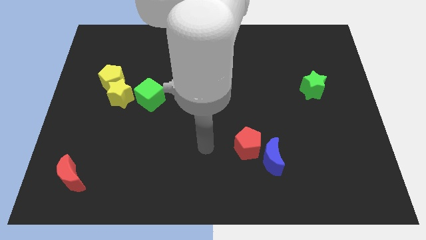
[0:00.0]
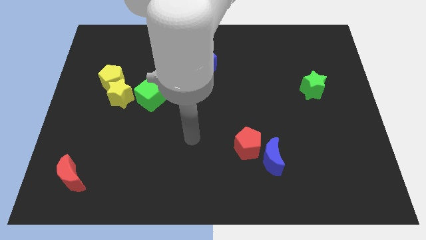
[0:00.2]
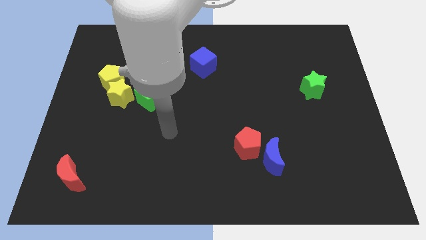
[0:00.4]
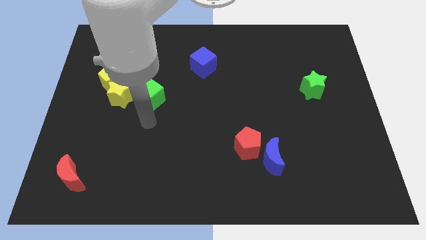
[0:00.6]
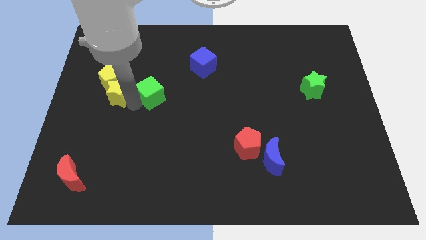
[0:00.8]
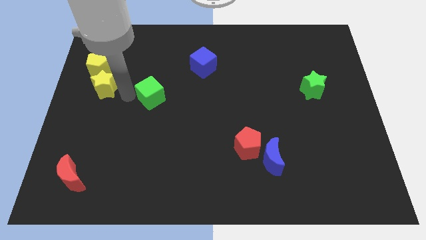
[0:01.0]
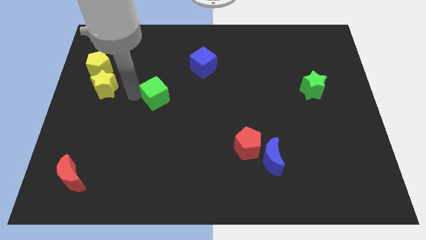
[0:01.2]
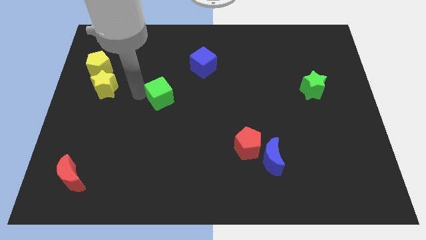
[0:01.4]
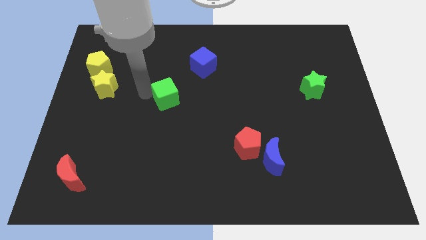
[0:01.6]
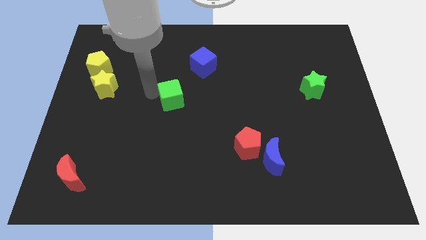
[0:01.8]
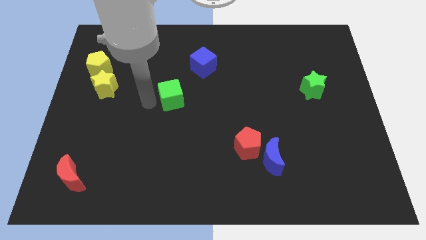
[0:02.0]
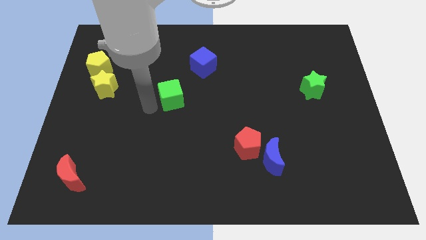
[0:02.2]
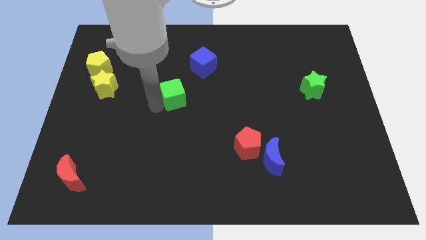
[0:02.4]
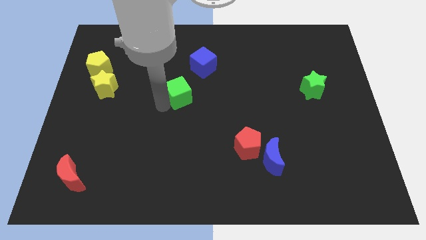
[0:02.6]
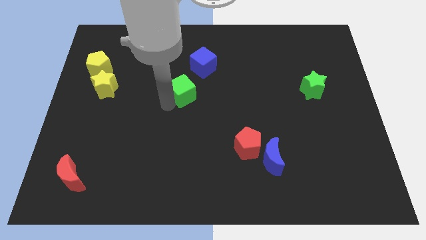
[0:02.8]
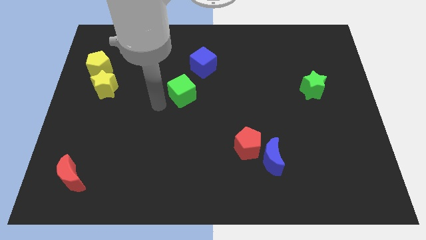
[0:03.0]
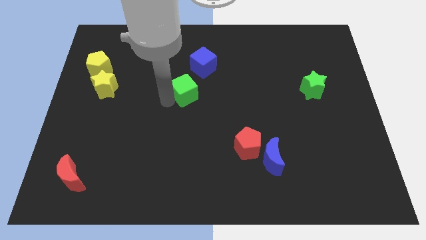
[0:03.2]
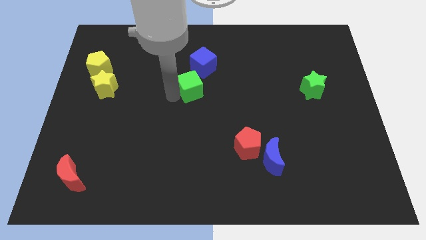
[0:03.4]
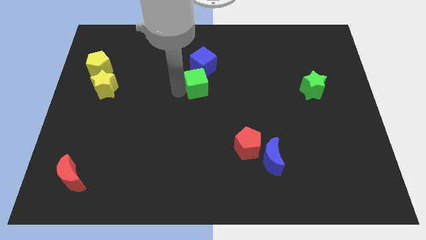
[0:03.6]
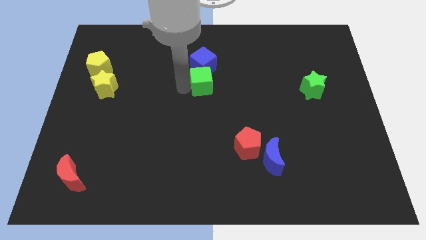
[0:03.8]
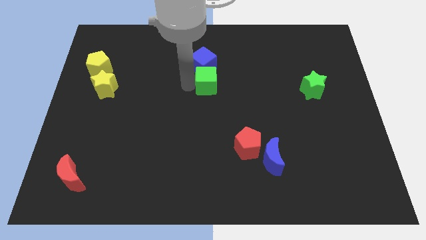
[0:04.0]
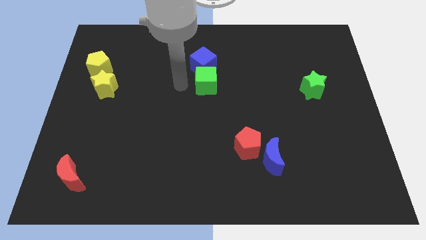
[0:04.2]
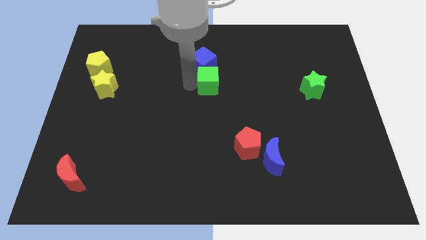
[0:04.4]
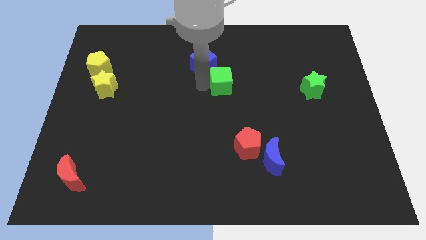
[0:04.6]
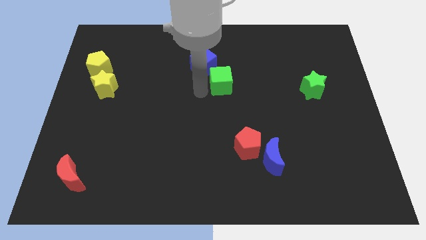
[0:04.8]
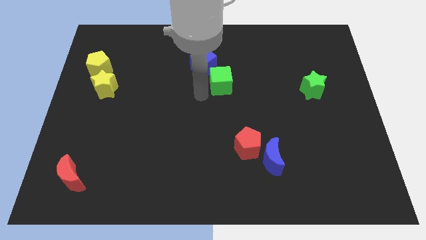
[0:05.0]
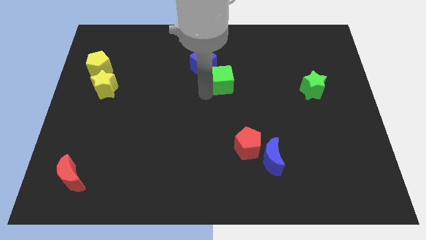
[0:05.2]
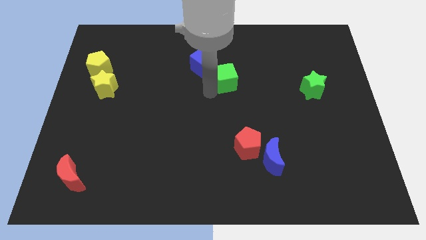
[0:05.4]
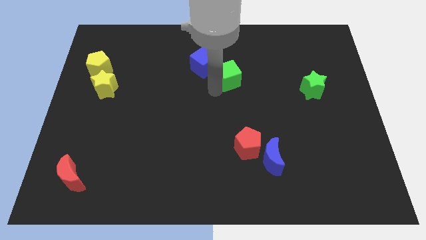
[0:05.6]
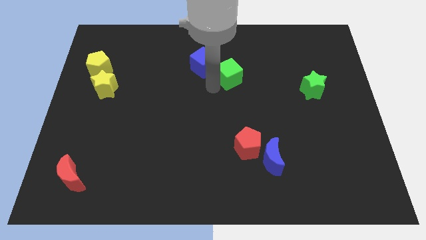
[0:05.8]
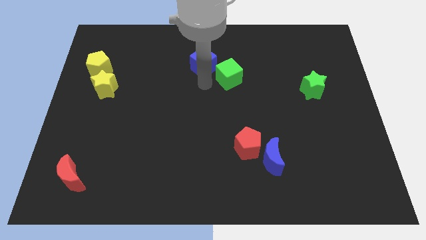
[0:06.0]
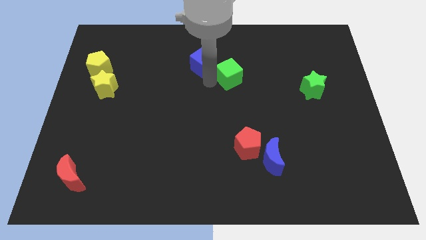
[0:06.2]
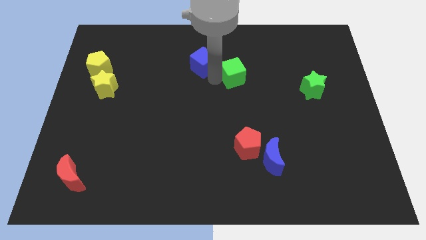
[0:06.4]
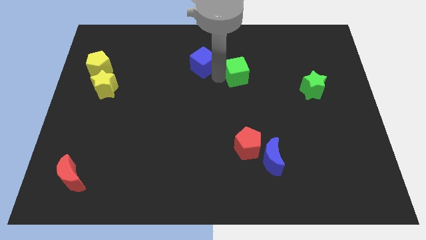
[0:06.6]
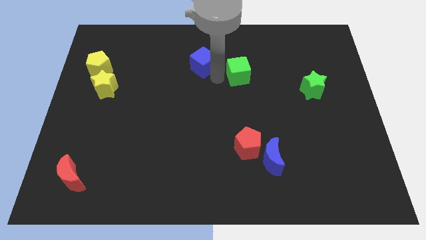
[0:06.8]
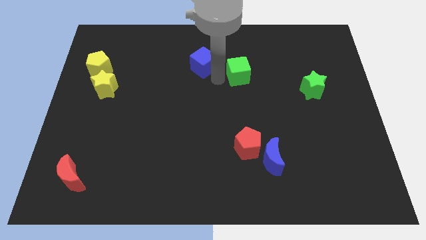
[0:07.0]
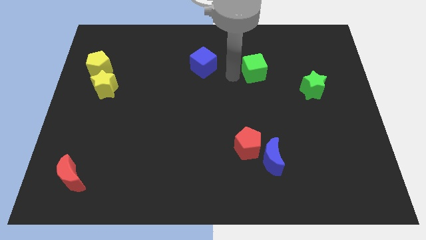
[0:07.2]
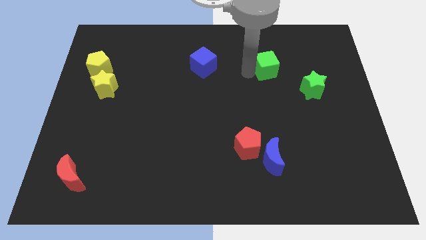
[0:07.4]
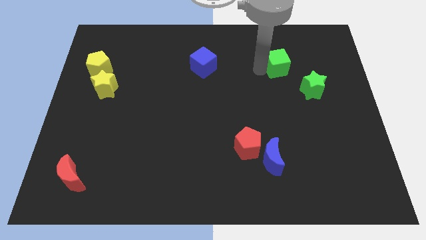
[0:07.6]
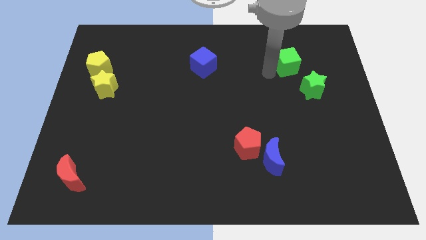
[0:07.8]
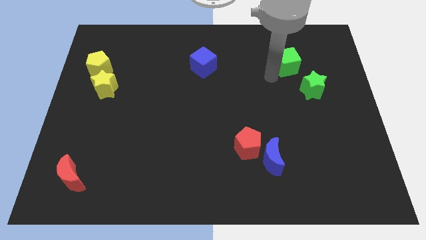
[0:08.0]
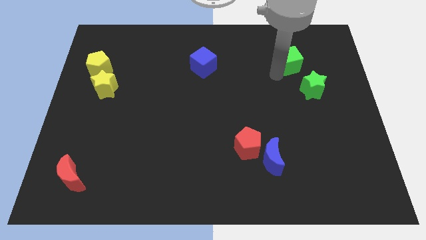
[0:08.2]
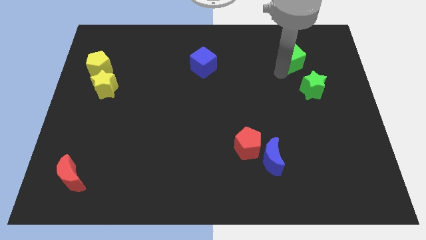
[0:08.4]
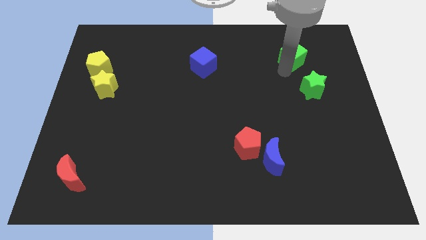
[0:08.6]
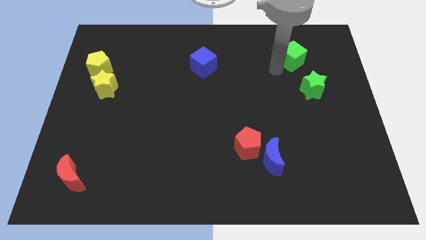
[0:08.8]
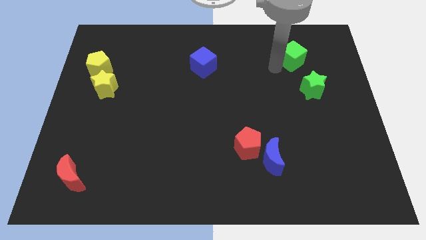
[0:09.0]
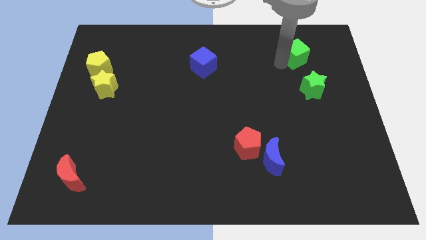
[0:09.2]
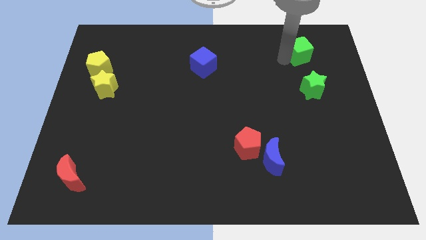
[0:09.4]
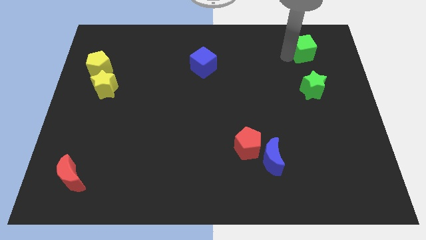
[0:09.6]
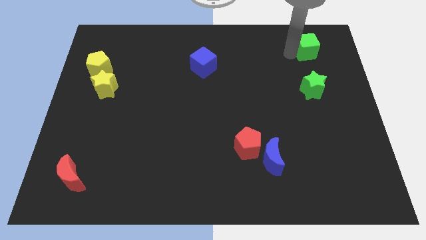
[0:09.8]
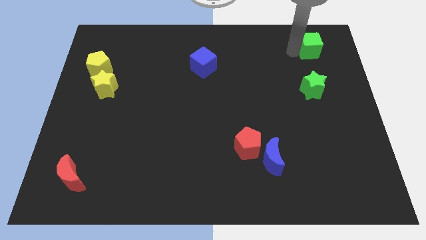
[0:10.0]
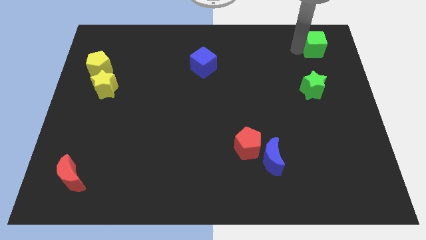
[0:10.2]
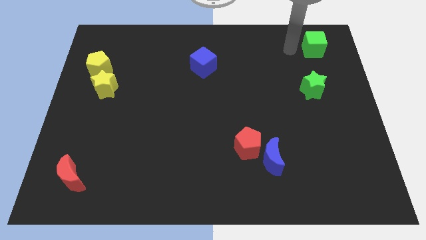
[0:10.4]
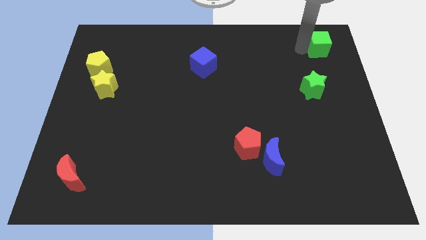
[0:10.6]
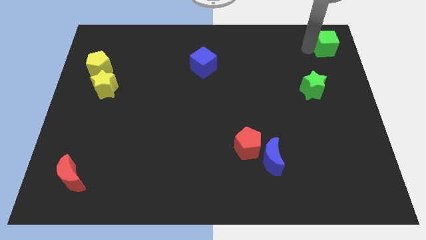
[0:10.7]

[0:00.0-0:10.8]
slide the green cube to the upper right corner
